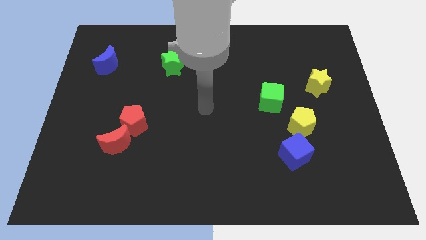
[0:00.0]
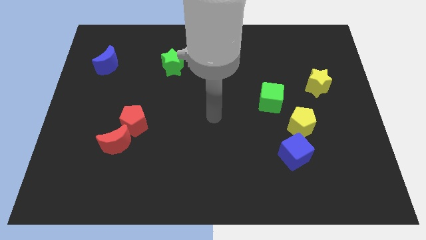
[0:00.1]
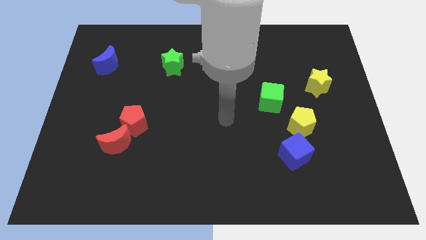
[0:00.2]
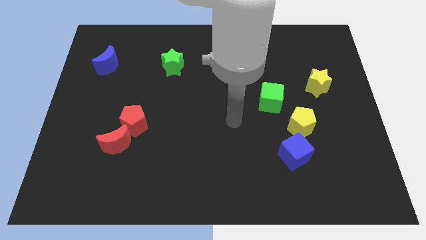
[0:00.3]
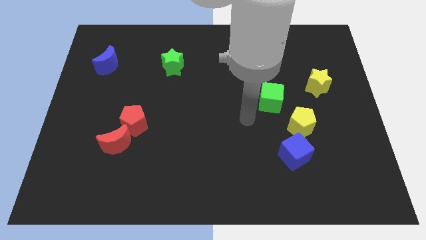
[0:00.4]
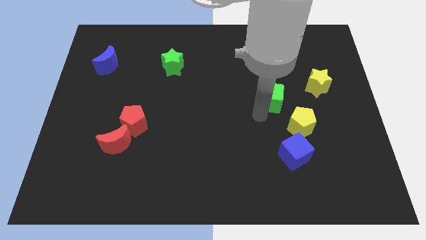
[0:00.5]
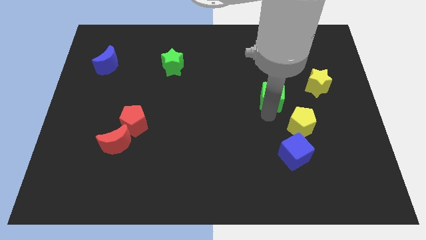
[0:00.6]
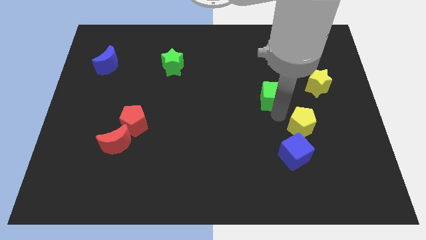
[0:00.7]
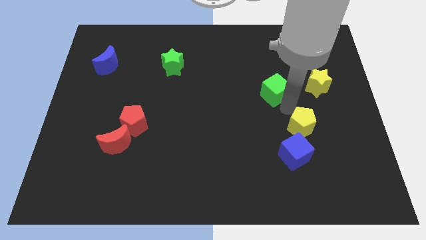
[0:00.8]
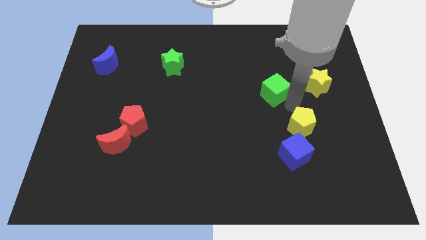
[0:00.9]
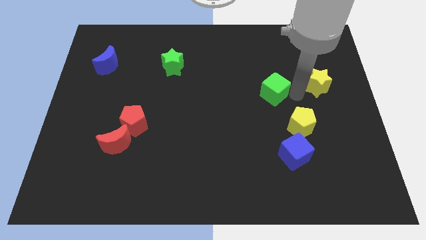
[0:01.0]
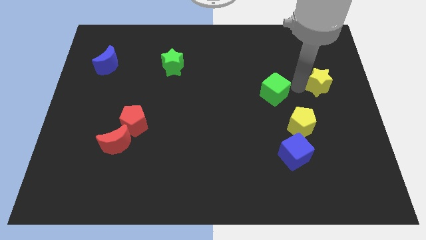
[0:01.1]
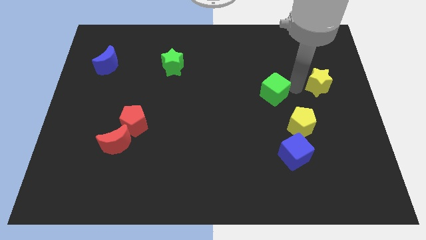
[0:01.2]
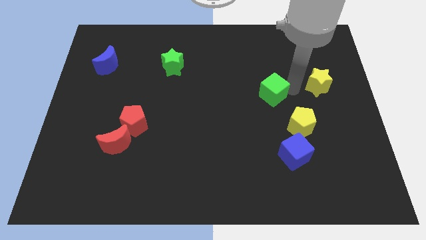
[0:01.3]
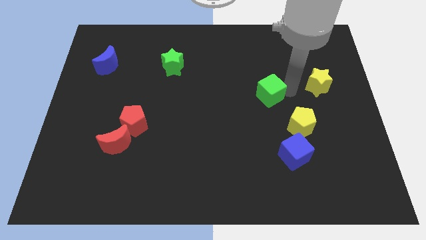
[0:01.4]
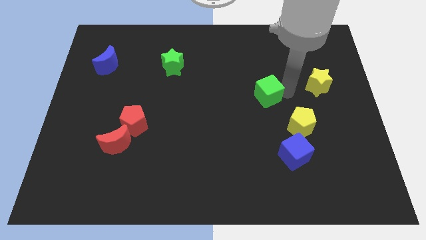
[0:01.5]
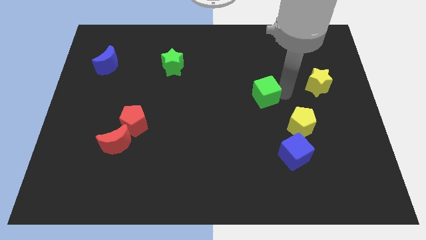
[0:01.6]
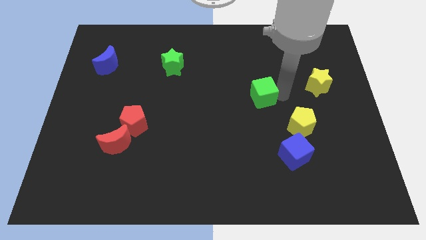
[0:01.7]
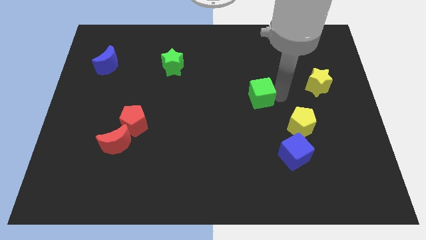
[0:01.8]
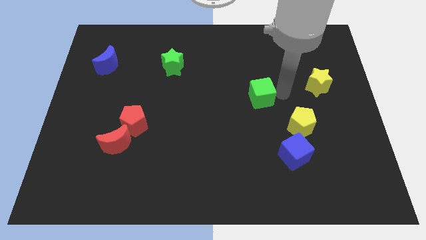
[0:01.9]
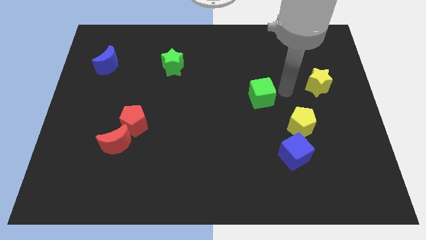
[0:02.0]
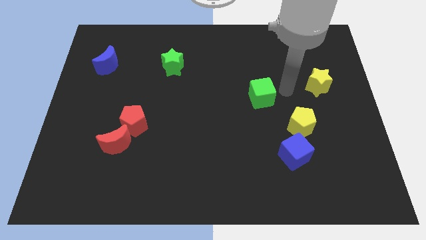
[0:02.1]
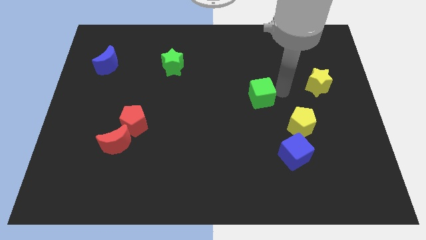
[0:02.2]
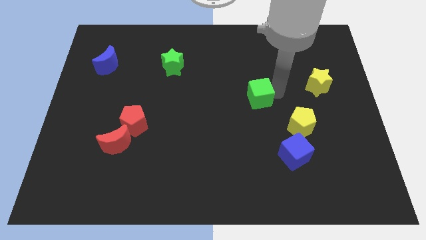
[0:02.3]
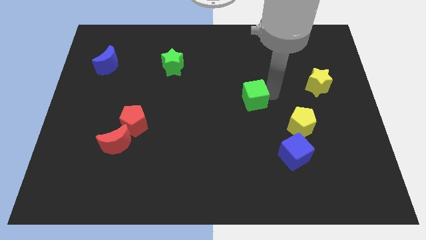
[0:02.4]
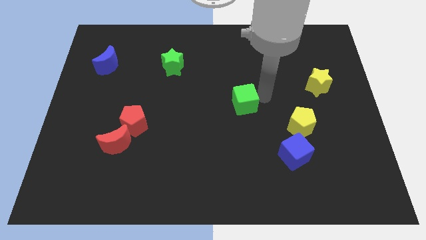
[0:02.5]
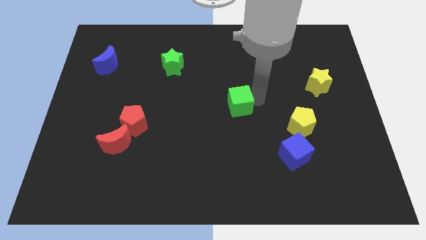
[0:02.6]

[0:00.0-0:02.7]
slightly slide the green cube left

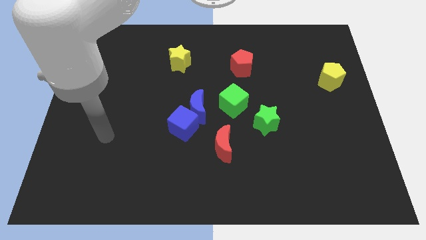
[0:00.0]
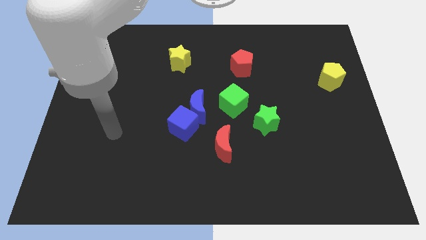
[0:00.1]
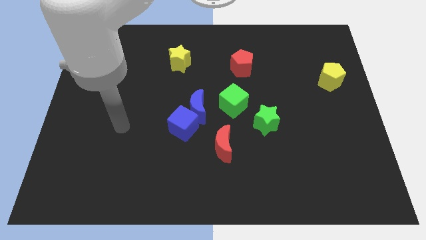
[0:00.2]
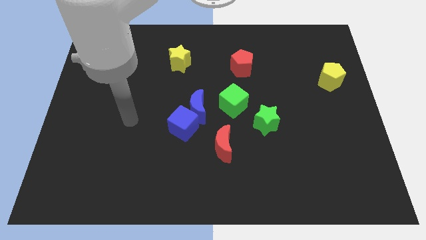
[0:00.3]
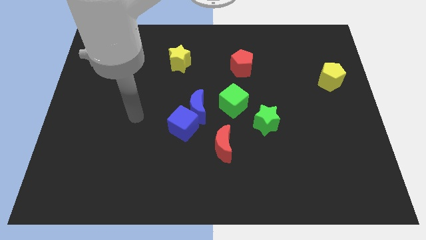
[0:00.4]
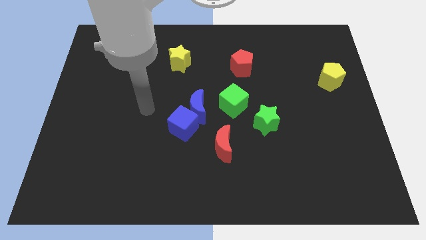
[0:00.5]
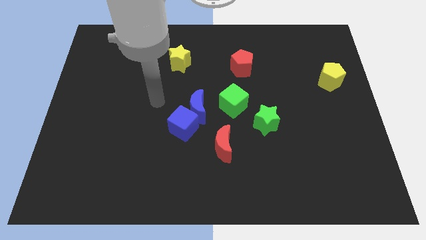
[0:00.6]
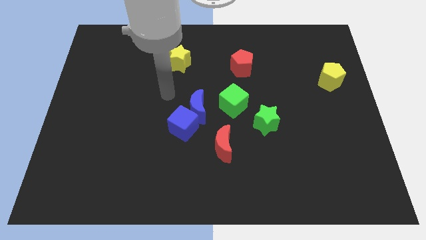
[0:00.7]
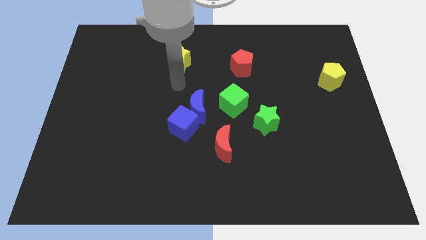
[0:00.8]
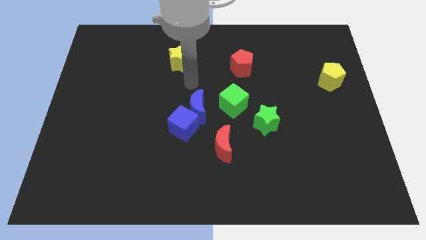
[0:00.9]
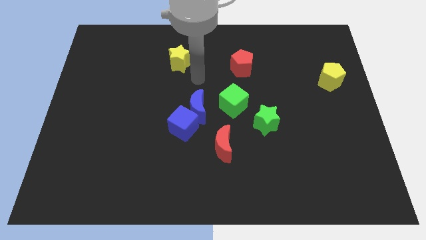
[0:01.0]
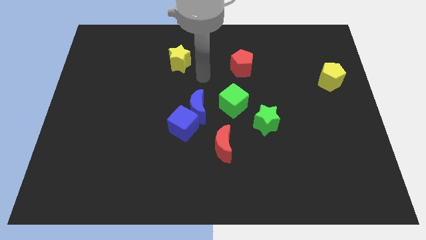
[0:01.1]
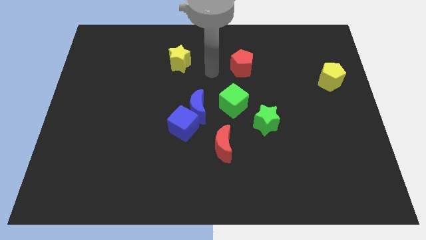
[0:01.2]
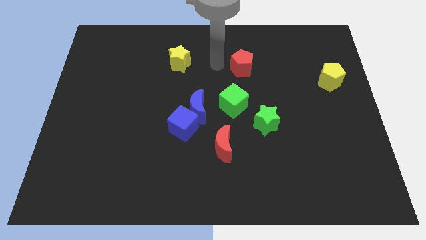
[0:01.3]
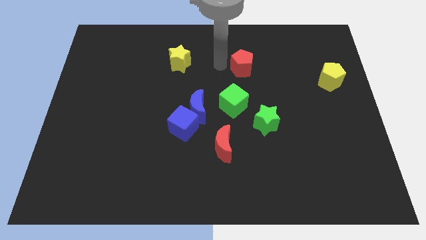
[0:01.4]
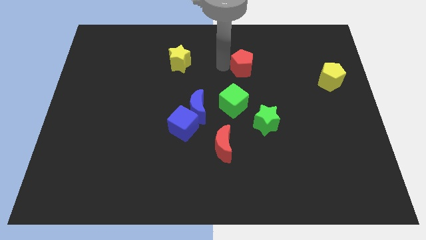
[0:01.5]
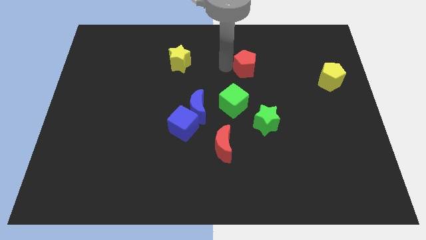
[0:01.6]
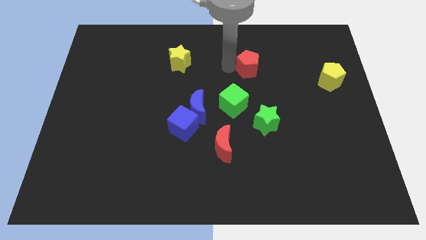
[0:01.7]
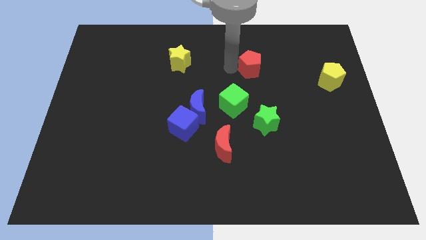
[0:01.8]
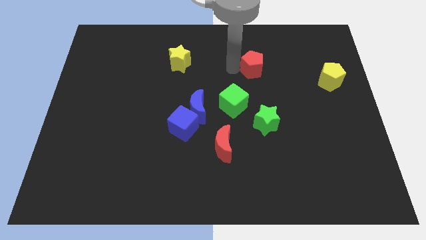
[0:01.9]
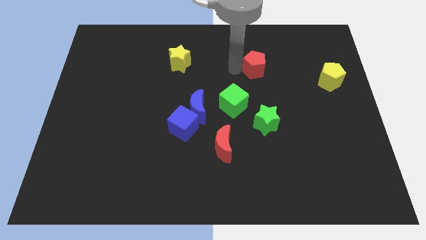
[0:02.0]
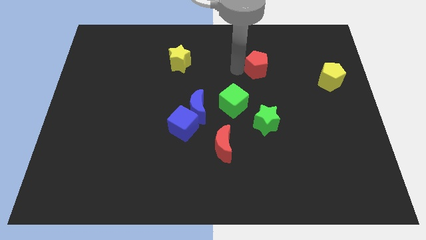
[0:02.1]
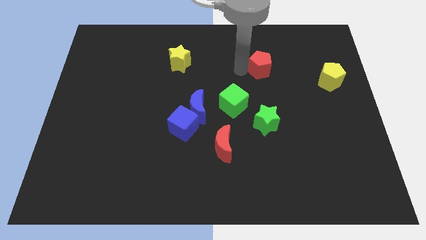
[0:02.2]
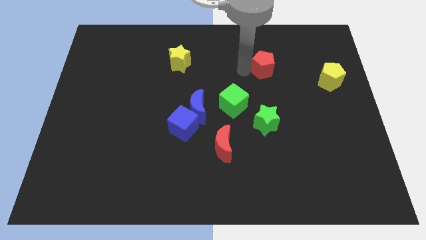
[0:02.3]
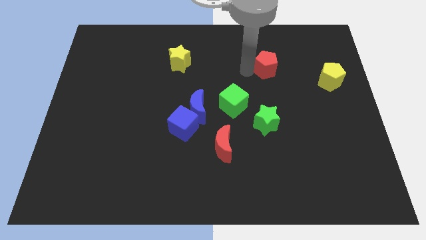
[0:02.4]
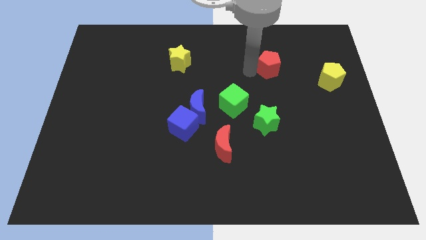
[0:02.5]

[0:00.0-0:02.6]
slightly move the red pentagon right

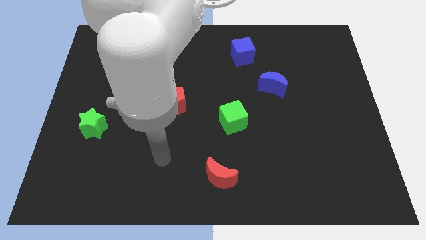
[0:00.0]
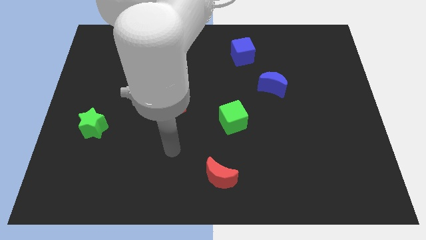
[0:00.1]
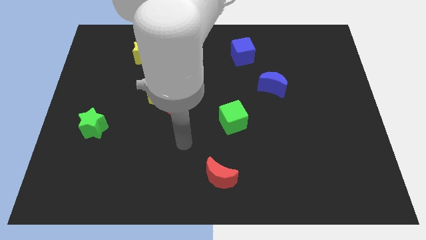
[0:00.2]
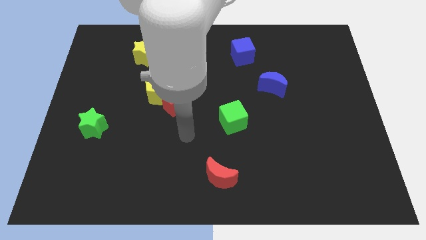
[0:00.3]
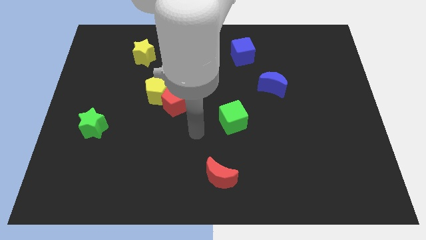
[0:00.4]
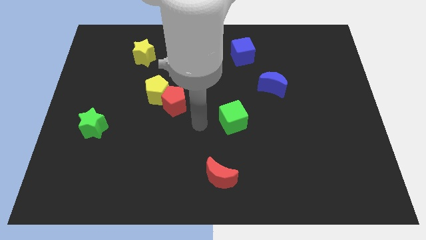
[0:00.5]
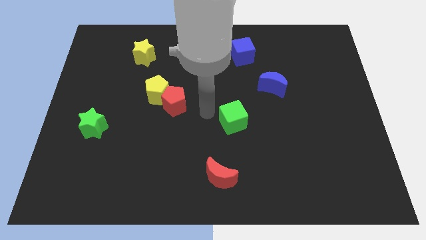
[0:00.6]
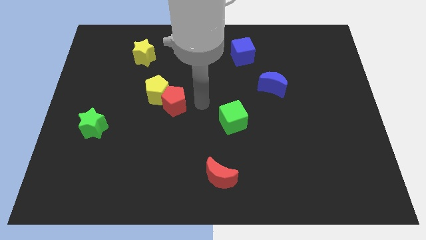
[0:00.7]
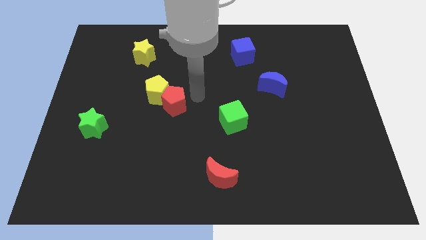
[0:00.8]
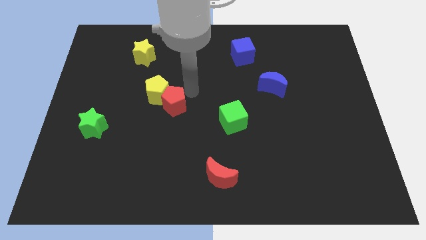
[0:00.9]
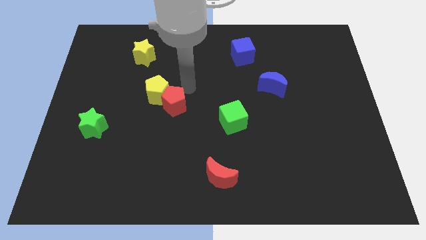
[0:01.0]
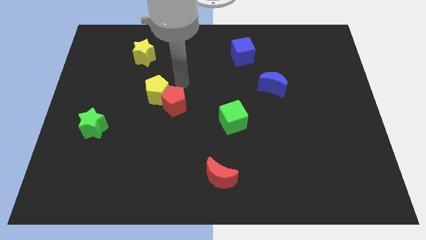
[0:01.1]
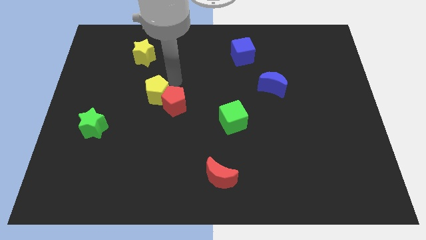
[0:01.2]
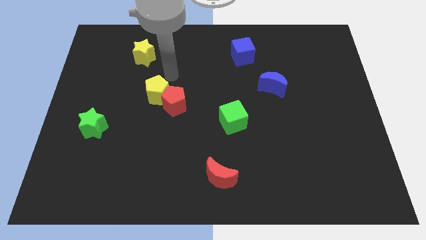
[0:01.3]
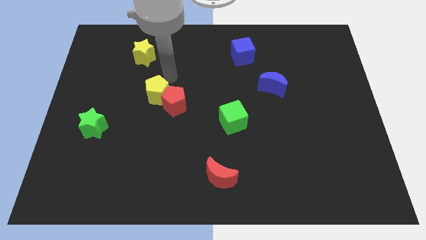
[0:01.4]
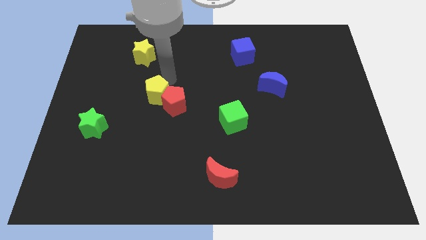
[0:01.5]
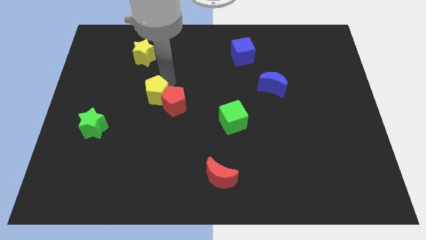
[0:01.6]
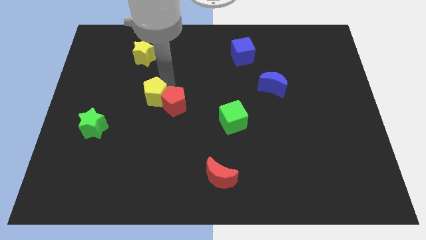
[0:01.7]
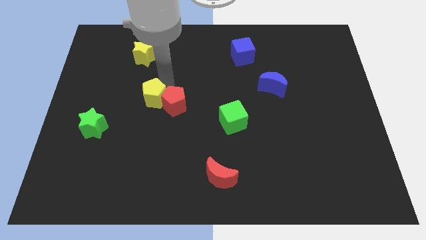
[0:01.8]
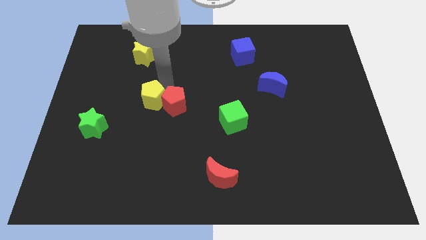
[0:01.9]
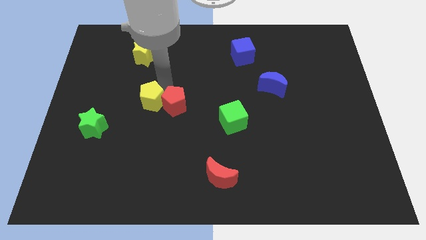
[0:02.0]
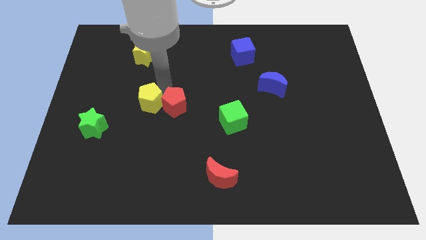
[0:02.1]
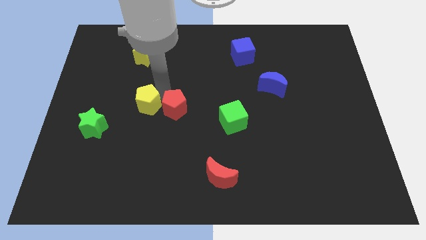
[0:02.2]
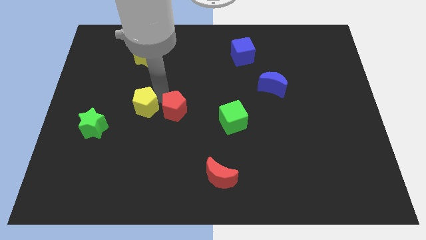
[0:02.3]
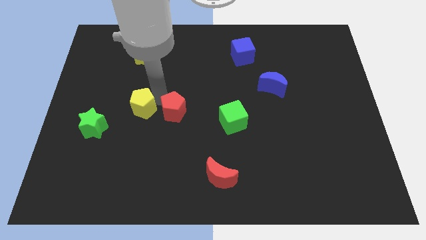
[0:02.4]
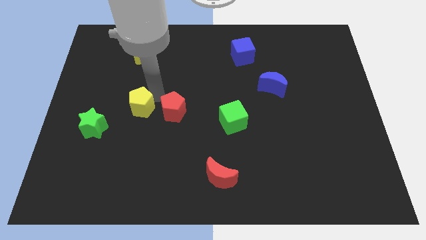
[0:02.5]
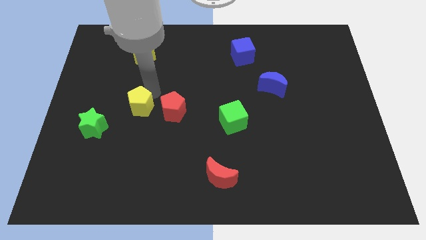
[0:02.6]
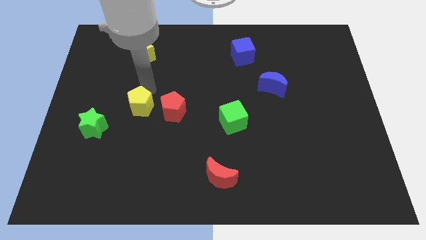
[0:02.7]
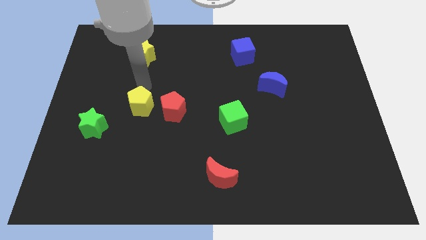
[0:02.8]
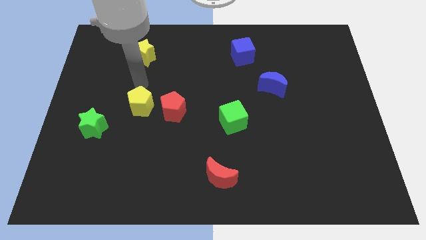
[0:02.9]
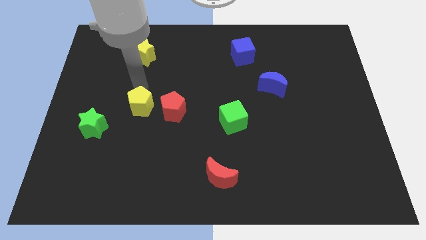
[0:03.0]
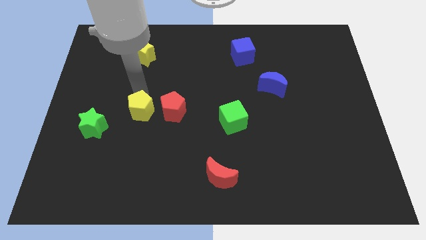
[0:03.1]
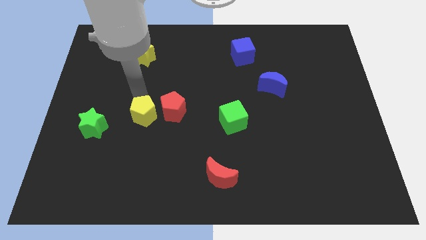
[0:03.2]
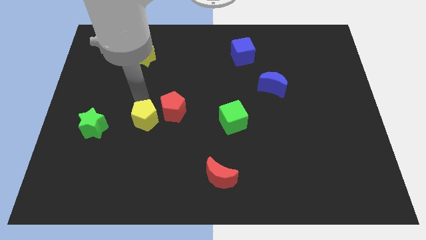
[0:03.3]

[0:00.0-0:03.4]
move the yellow pentagon downwards a bit
